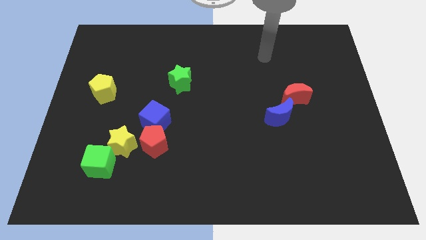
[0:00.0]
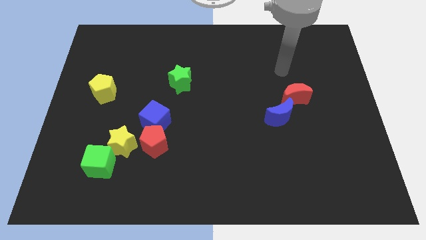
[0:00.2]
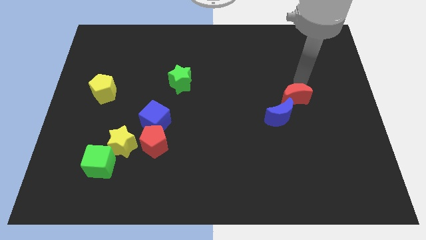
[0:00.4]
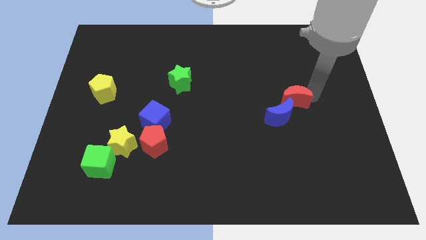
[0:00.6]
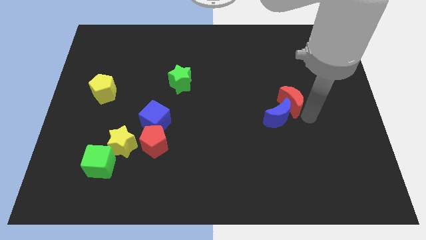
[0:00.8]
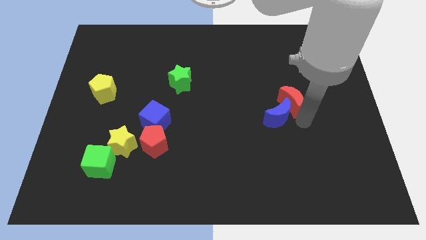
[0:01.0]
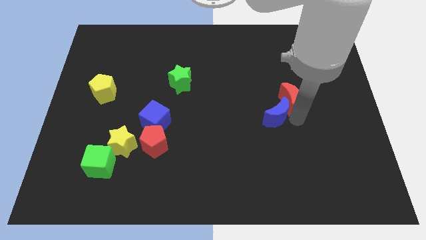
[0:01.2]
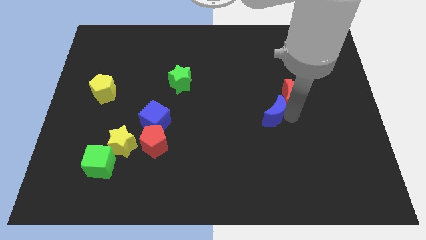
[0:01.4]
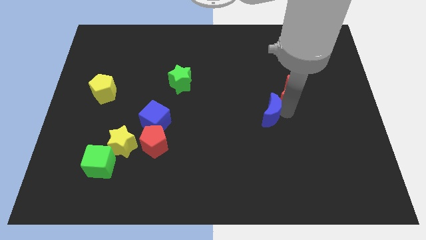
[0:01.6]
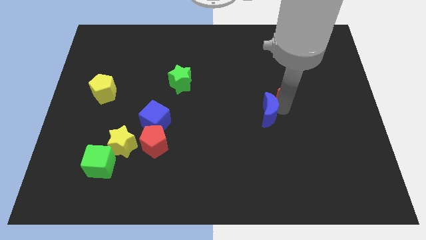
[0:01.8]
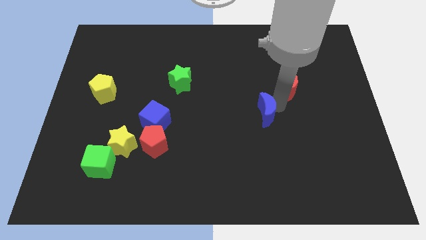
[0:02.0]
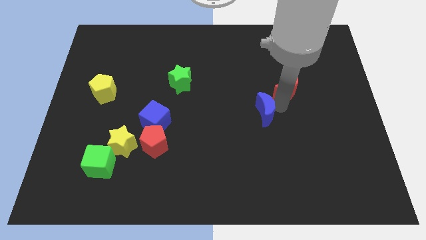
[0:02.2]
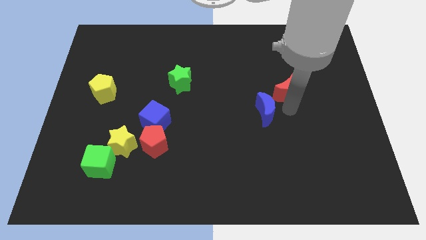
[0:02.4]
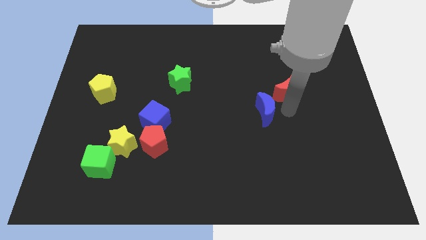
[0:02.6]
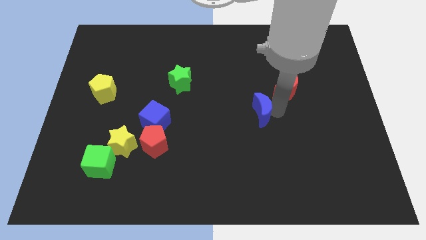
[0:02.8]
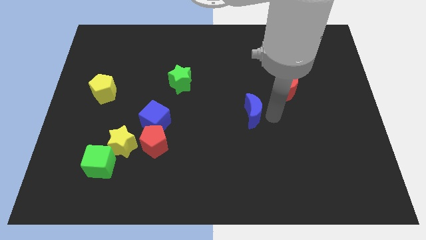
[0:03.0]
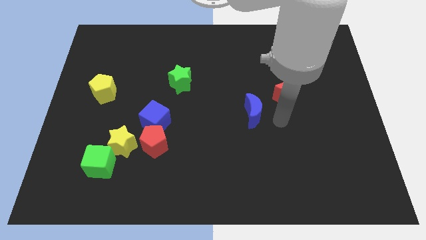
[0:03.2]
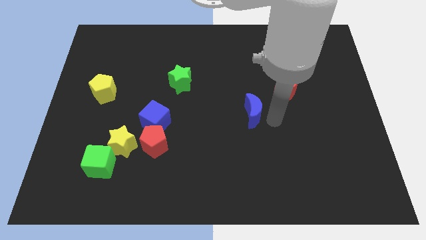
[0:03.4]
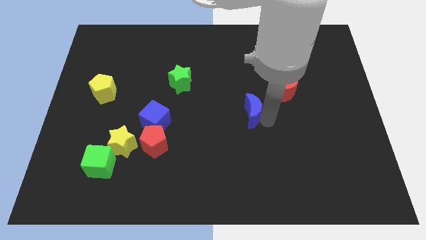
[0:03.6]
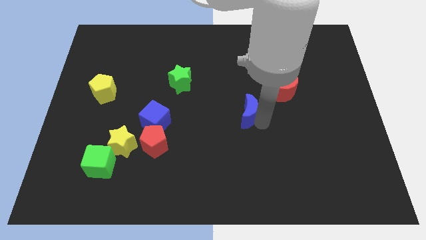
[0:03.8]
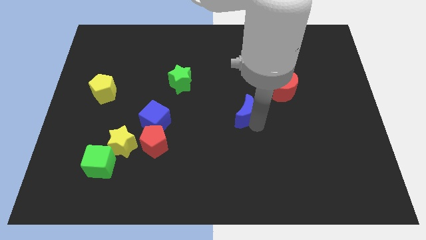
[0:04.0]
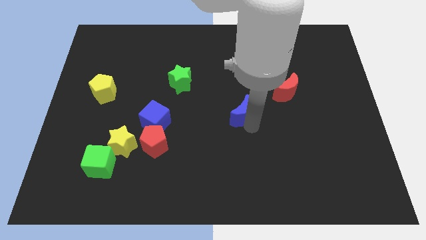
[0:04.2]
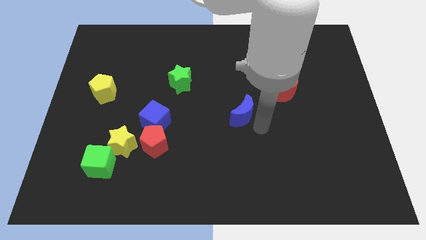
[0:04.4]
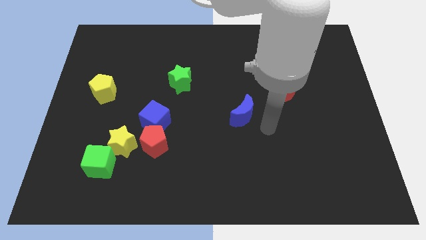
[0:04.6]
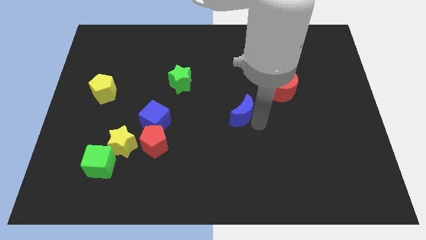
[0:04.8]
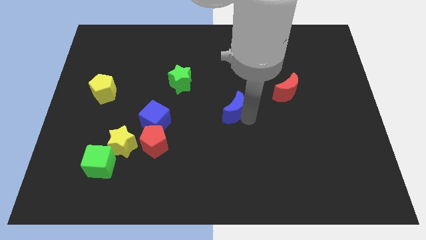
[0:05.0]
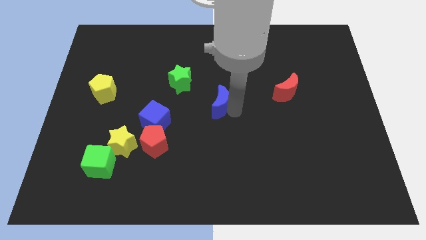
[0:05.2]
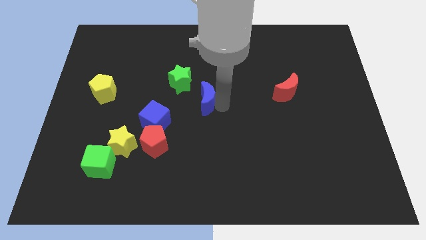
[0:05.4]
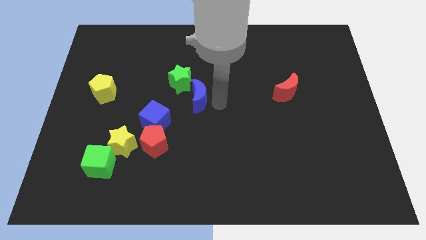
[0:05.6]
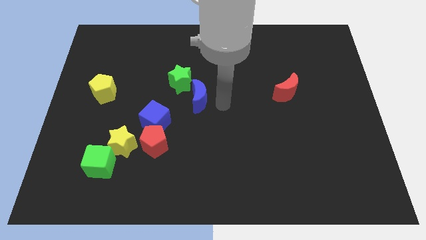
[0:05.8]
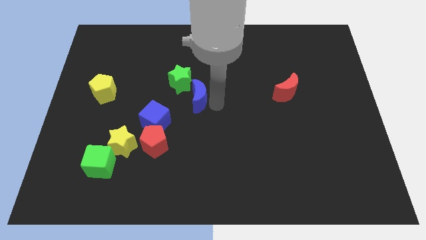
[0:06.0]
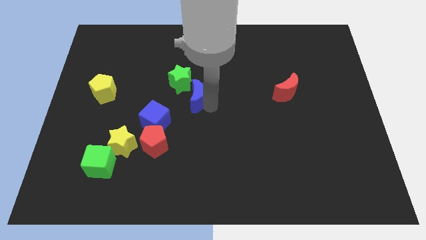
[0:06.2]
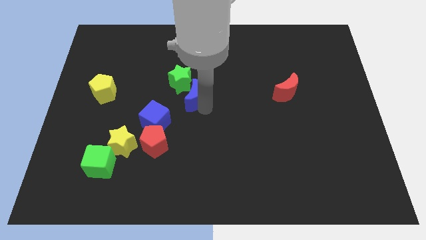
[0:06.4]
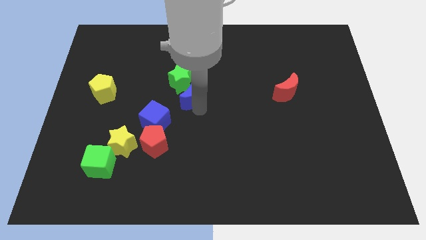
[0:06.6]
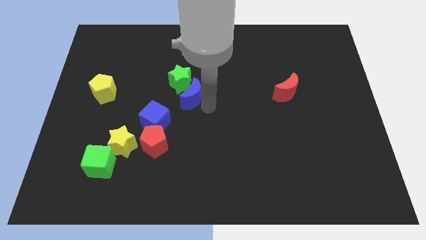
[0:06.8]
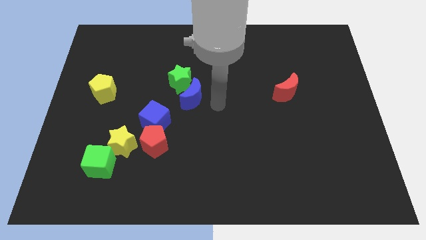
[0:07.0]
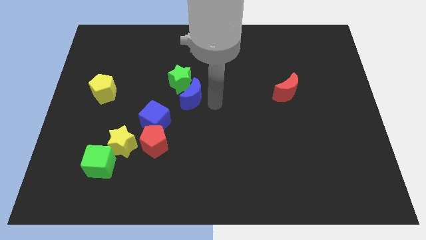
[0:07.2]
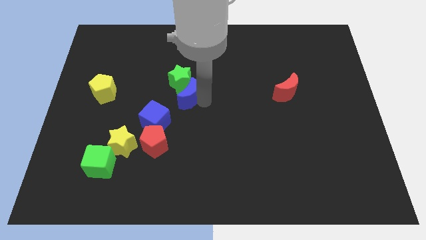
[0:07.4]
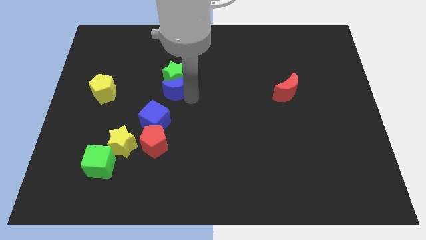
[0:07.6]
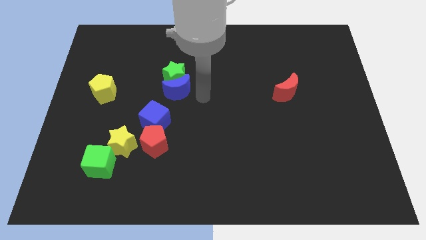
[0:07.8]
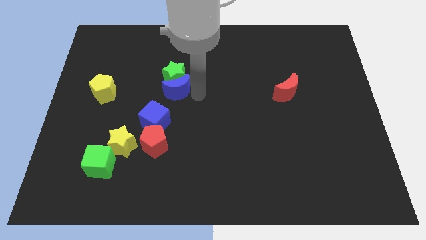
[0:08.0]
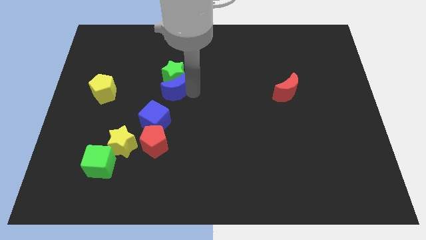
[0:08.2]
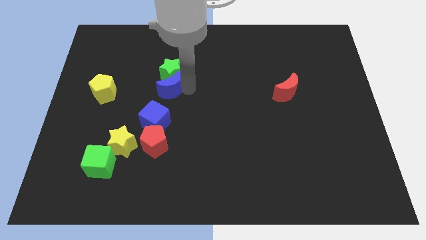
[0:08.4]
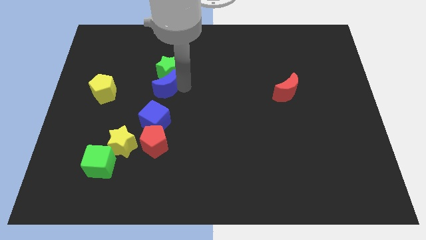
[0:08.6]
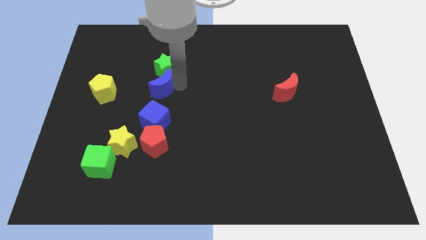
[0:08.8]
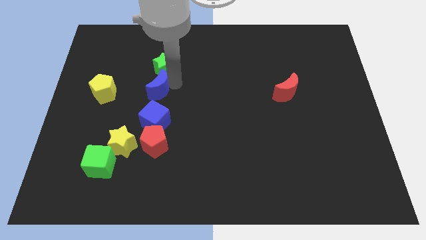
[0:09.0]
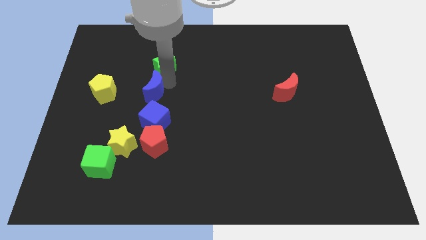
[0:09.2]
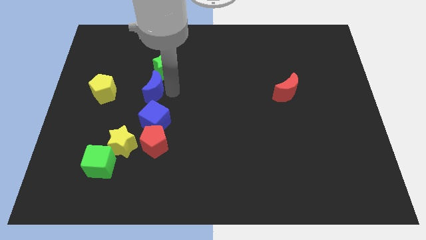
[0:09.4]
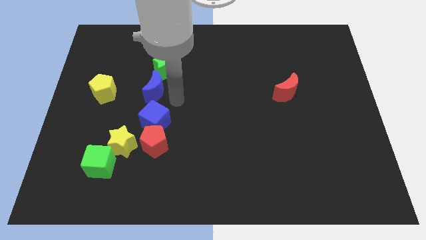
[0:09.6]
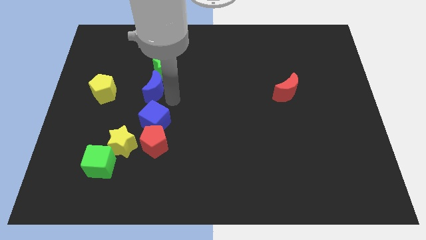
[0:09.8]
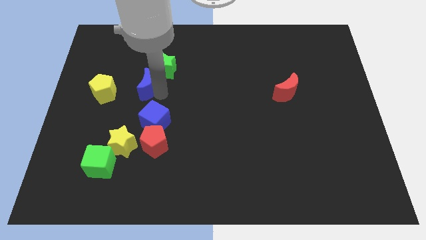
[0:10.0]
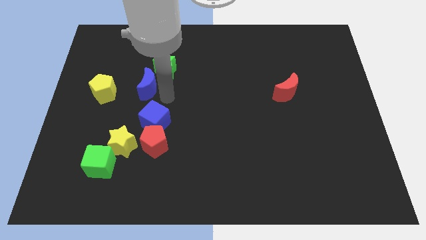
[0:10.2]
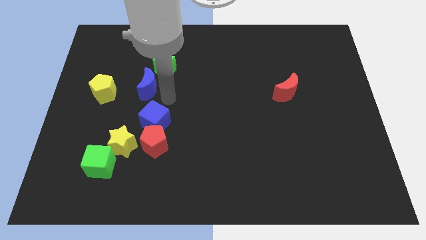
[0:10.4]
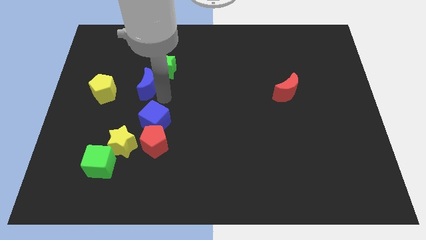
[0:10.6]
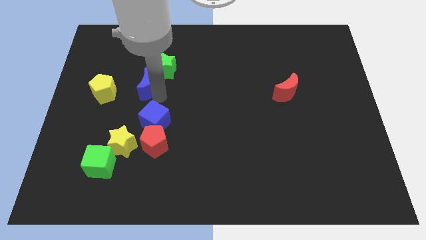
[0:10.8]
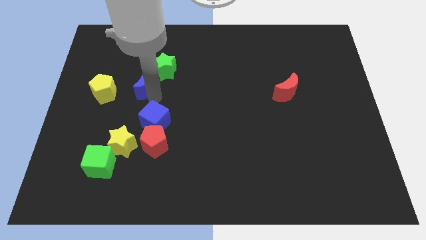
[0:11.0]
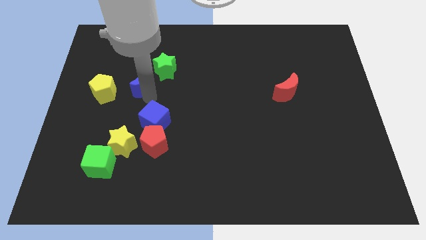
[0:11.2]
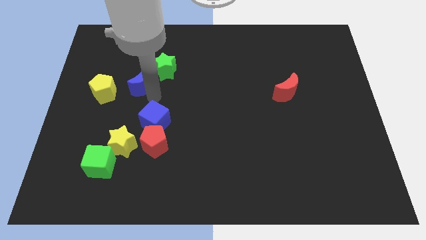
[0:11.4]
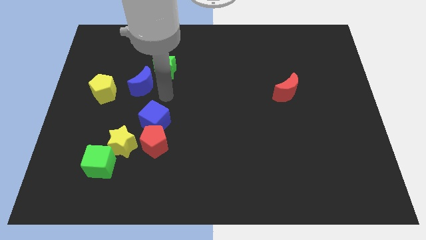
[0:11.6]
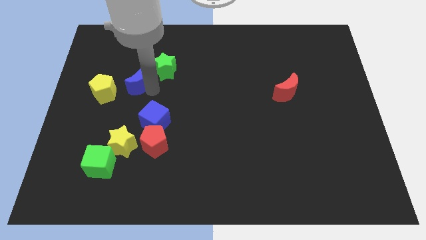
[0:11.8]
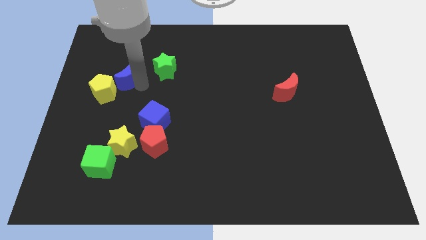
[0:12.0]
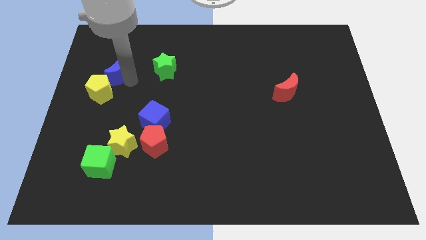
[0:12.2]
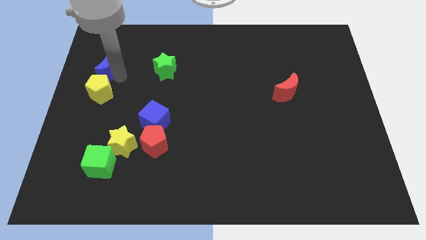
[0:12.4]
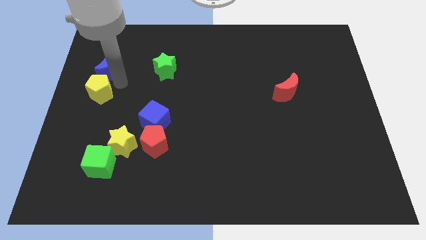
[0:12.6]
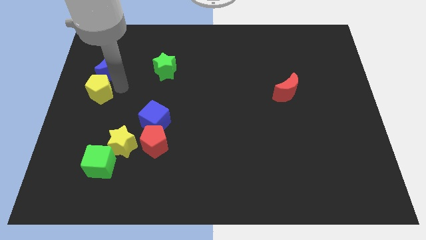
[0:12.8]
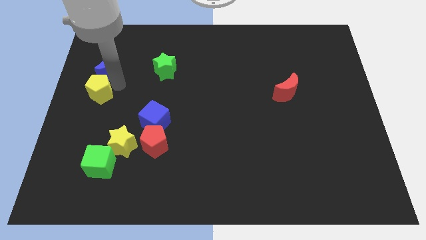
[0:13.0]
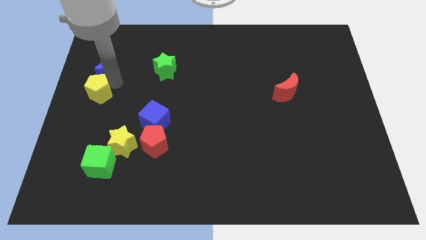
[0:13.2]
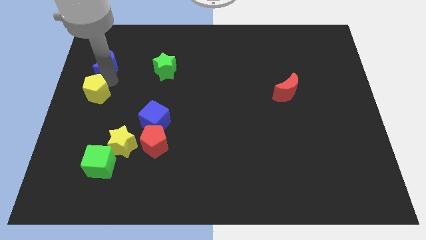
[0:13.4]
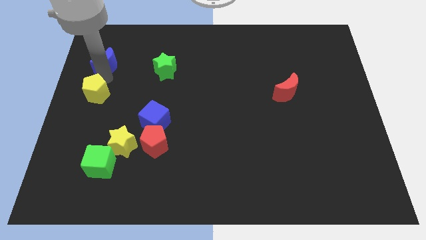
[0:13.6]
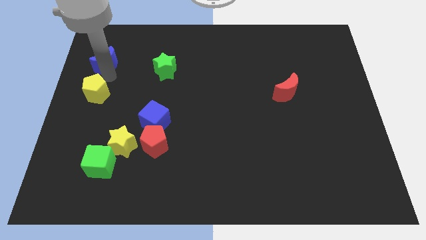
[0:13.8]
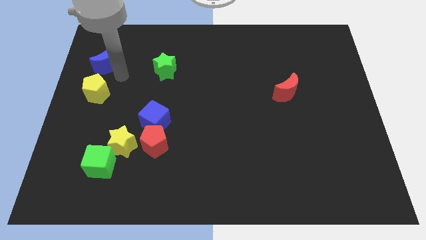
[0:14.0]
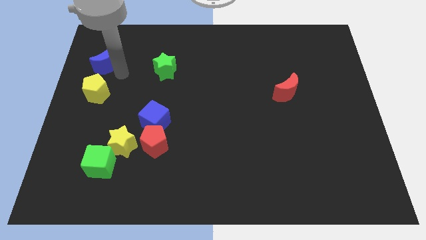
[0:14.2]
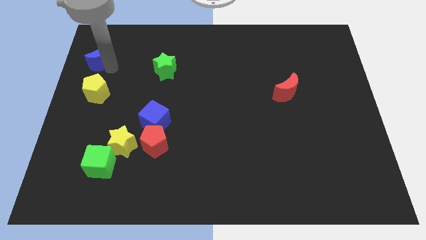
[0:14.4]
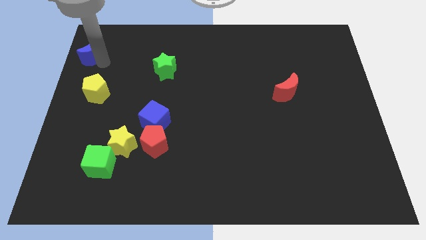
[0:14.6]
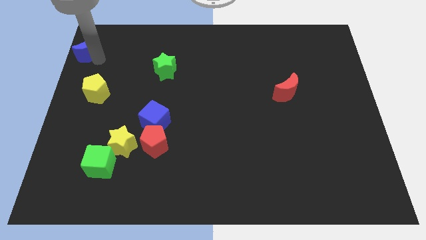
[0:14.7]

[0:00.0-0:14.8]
push the blue moon to the top left corner
